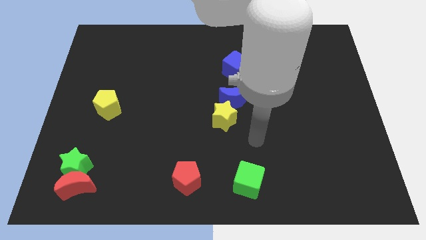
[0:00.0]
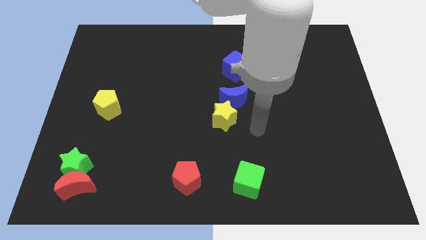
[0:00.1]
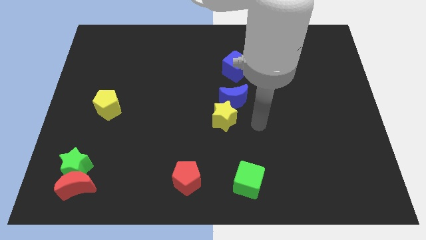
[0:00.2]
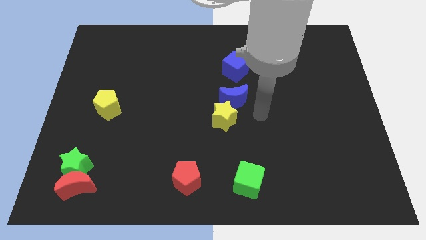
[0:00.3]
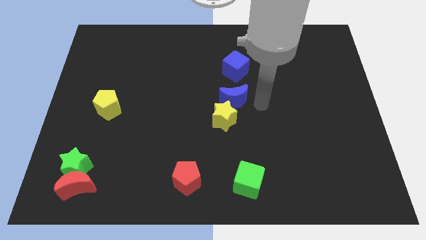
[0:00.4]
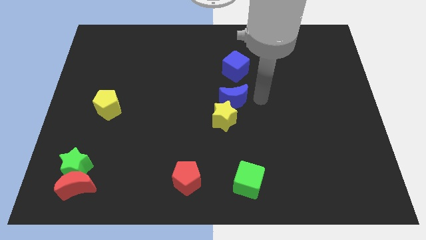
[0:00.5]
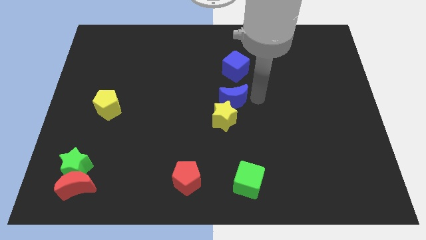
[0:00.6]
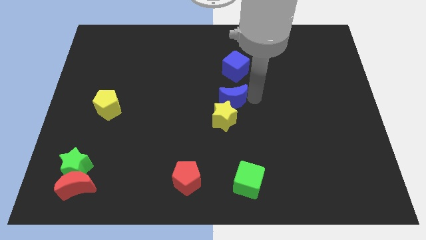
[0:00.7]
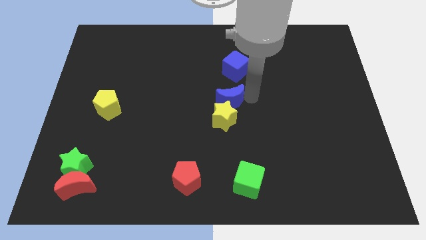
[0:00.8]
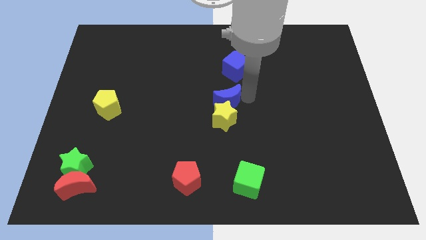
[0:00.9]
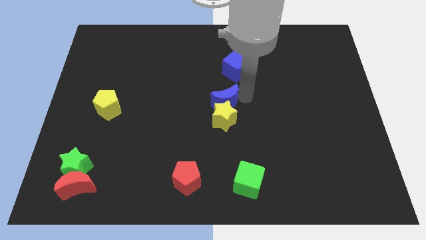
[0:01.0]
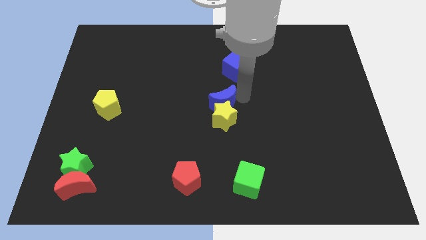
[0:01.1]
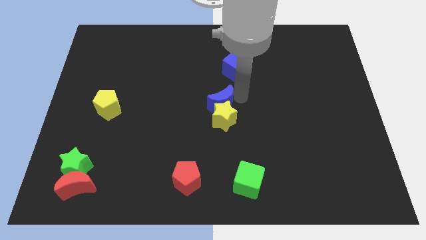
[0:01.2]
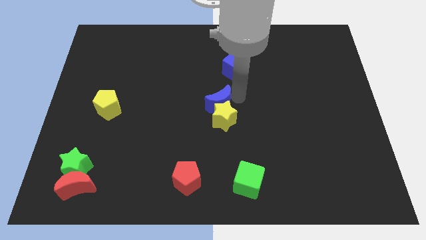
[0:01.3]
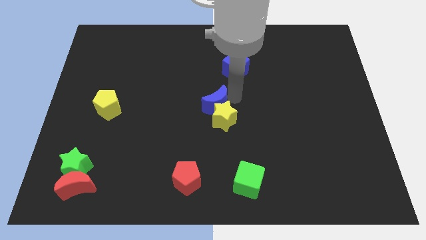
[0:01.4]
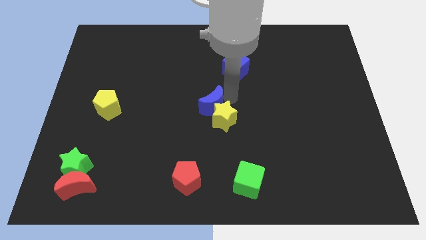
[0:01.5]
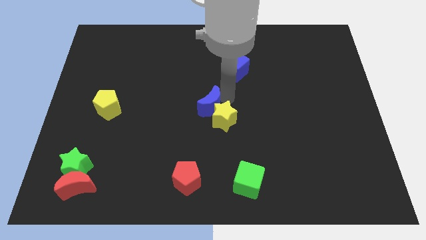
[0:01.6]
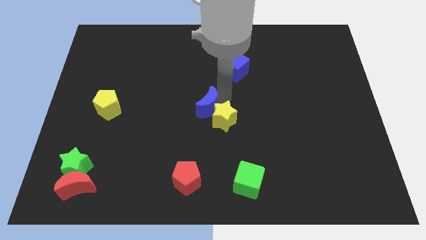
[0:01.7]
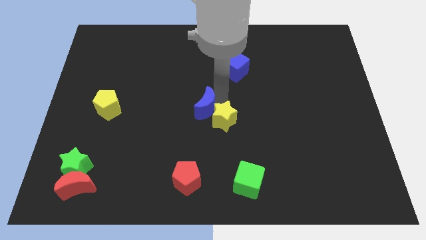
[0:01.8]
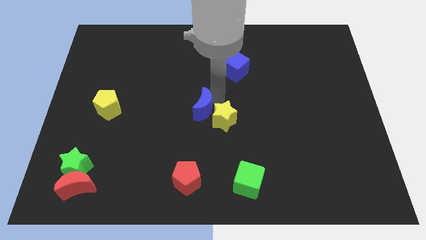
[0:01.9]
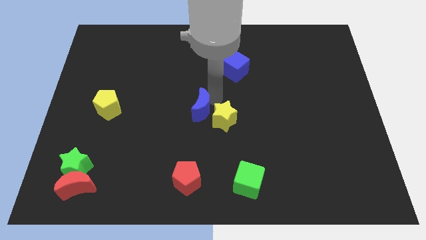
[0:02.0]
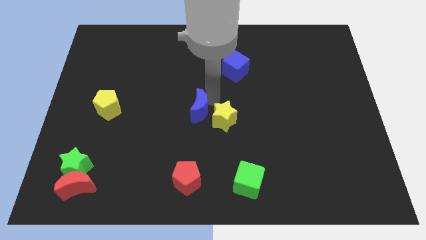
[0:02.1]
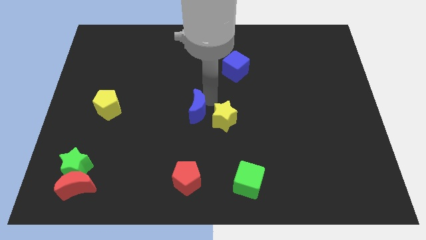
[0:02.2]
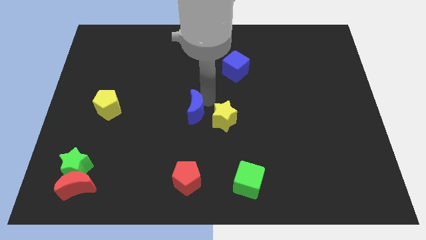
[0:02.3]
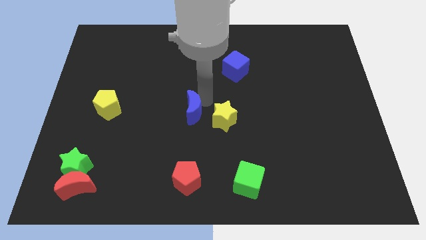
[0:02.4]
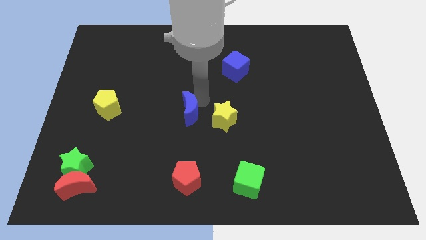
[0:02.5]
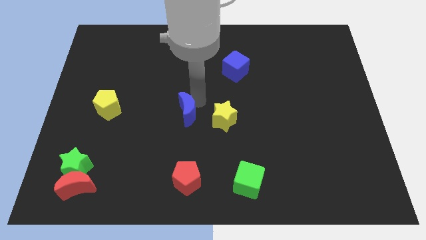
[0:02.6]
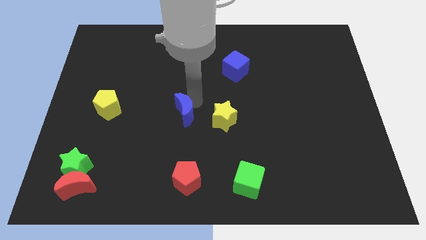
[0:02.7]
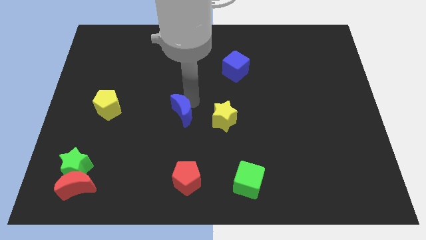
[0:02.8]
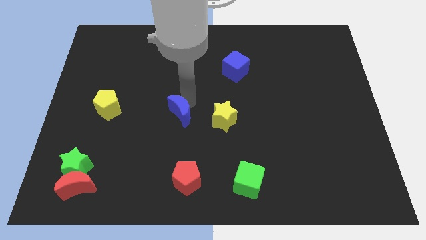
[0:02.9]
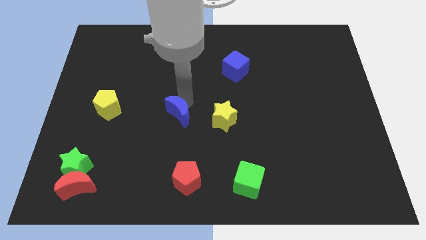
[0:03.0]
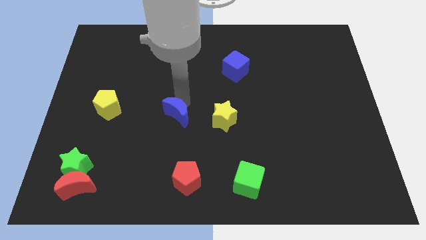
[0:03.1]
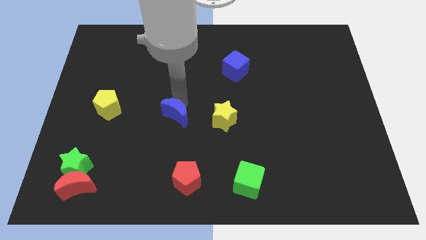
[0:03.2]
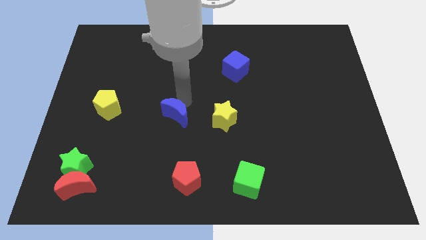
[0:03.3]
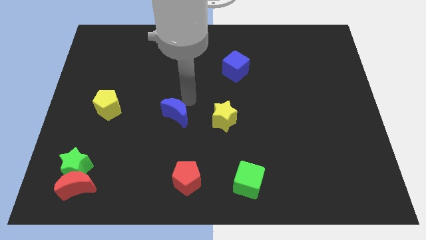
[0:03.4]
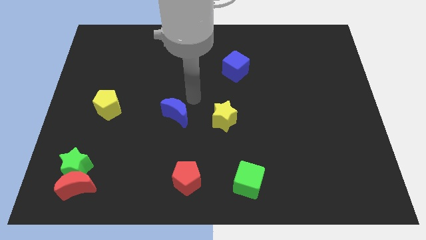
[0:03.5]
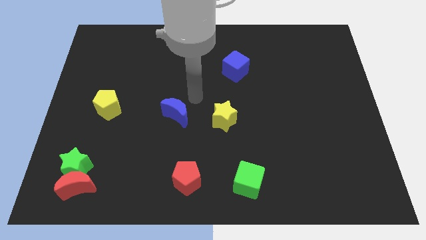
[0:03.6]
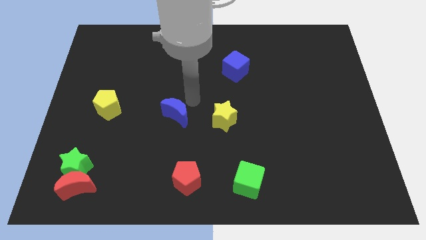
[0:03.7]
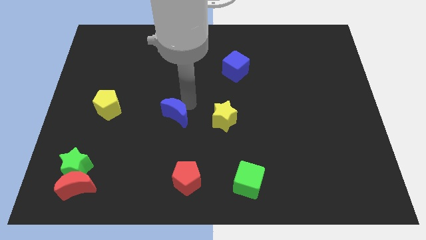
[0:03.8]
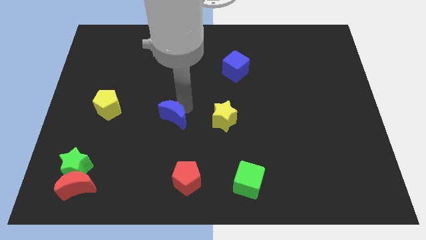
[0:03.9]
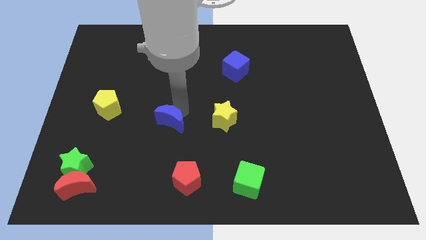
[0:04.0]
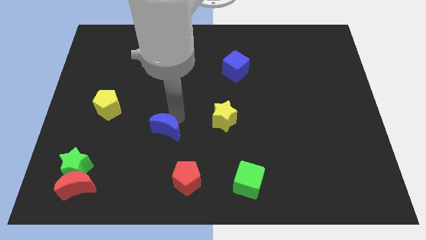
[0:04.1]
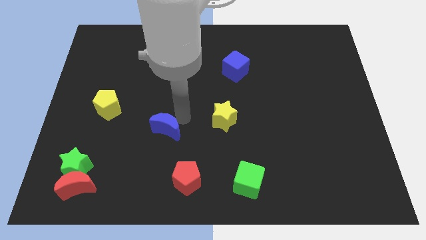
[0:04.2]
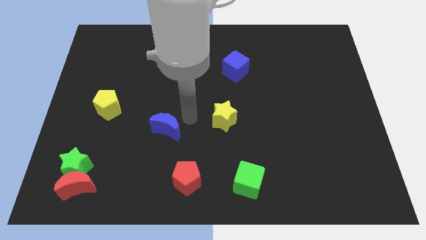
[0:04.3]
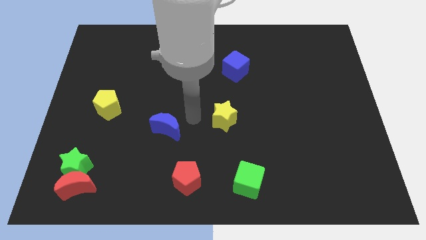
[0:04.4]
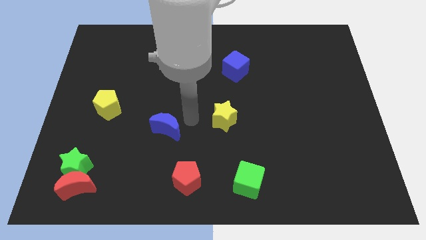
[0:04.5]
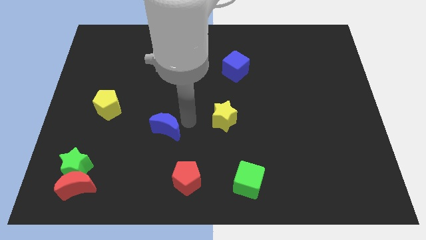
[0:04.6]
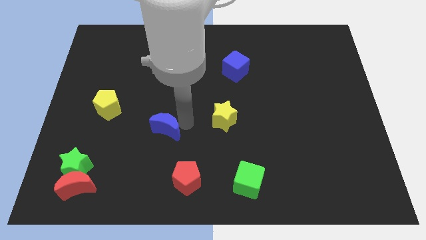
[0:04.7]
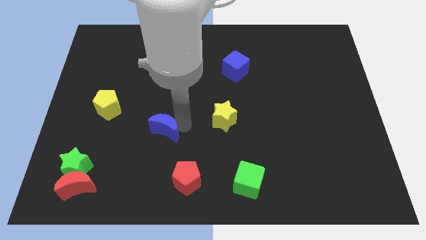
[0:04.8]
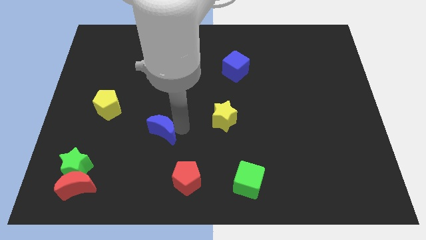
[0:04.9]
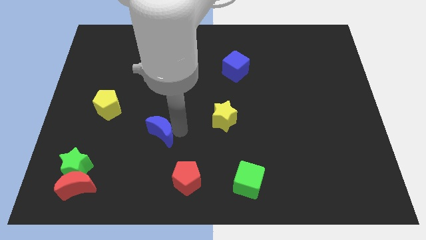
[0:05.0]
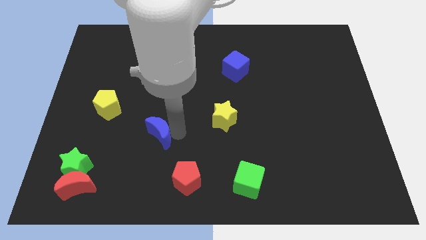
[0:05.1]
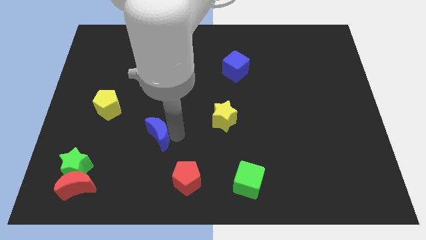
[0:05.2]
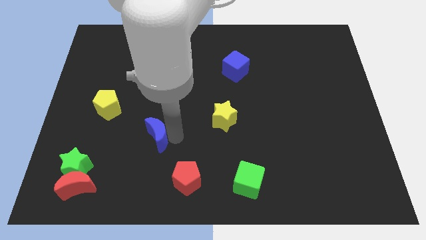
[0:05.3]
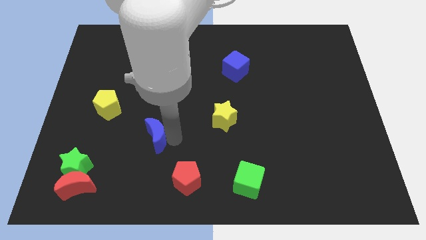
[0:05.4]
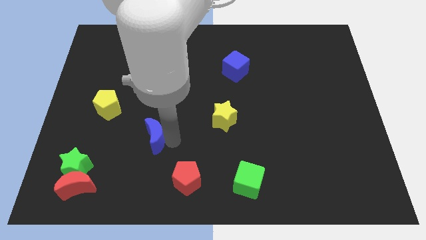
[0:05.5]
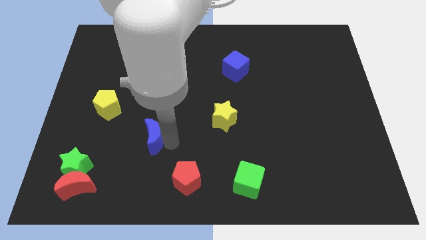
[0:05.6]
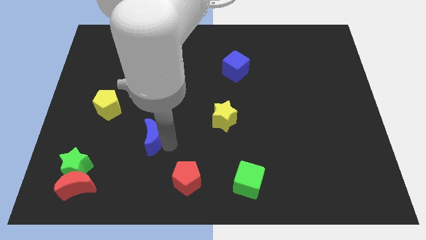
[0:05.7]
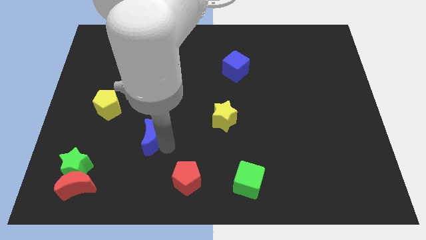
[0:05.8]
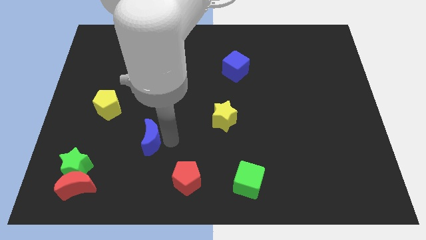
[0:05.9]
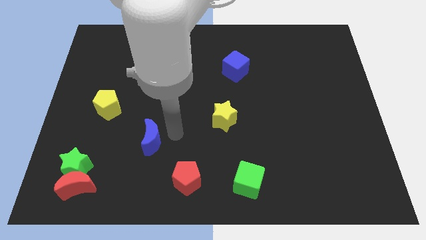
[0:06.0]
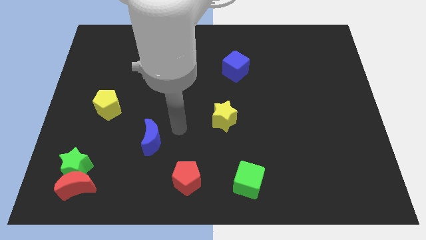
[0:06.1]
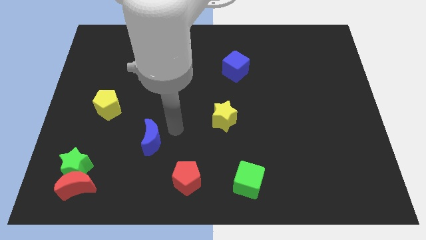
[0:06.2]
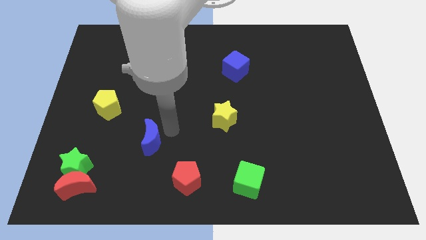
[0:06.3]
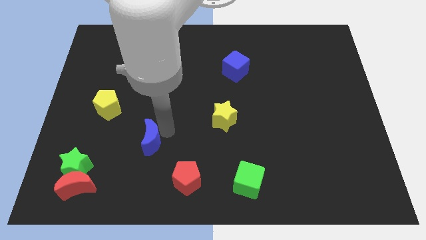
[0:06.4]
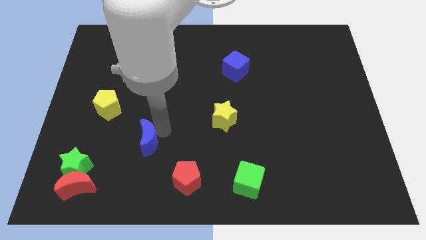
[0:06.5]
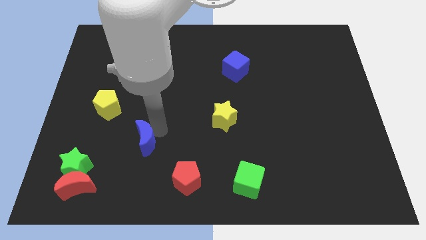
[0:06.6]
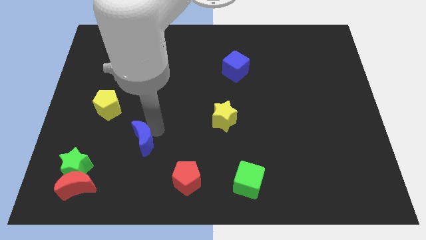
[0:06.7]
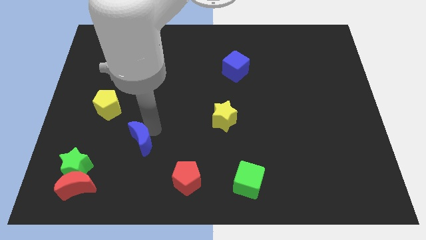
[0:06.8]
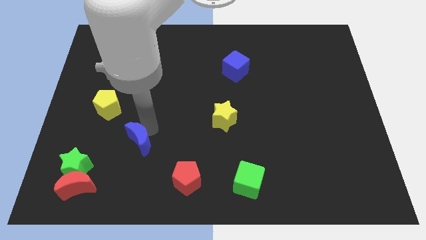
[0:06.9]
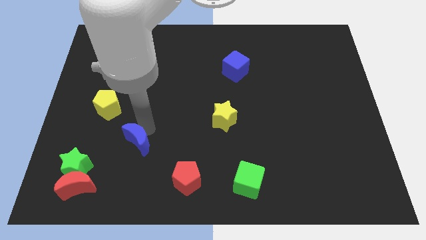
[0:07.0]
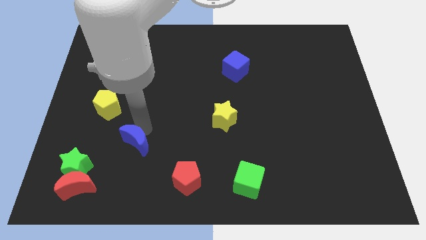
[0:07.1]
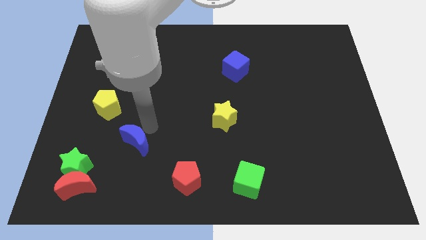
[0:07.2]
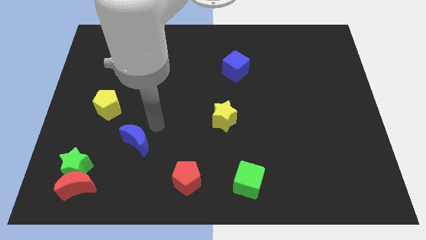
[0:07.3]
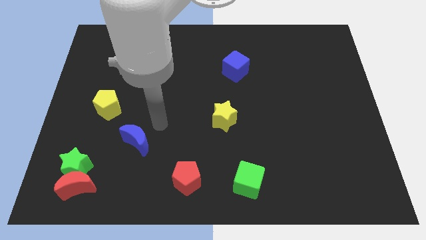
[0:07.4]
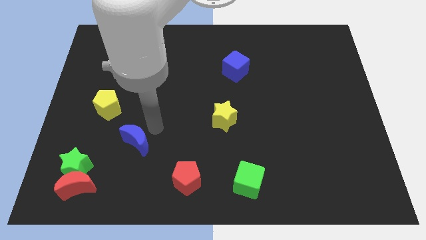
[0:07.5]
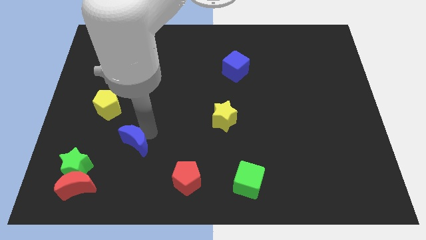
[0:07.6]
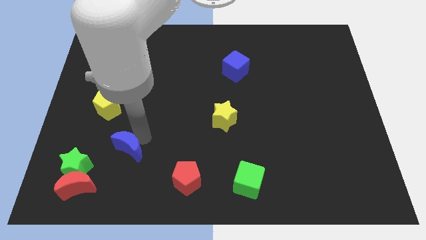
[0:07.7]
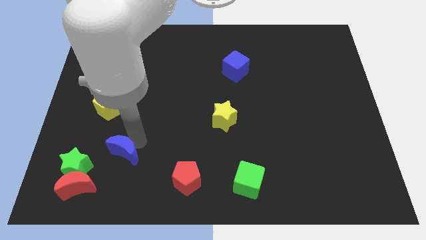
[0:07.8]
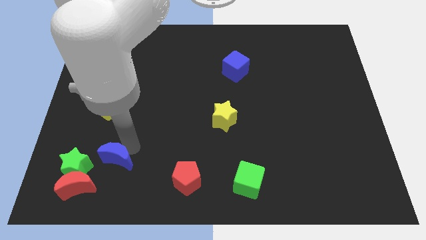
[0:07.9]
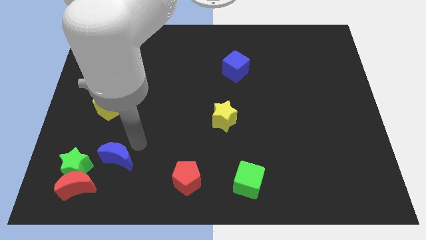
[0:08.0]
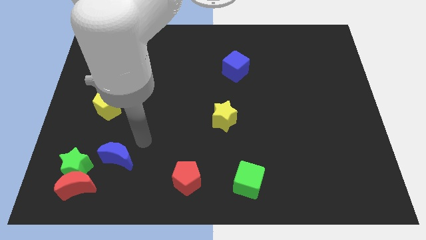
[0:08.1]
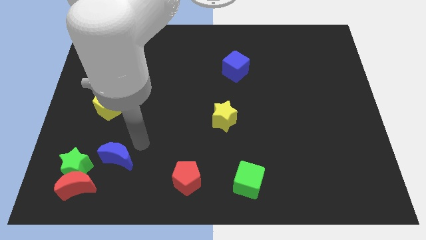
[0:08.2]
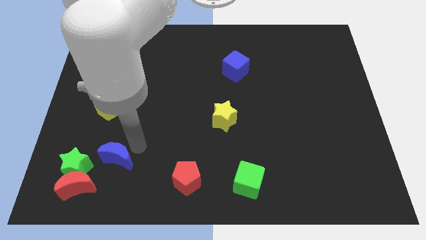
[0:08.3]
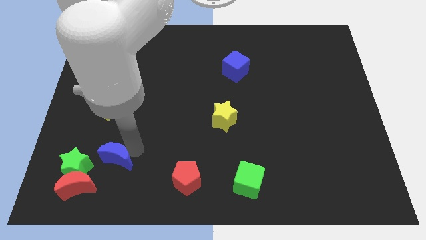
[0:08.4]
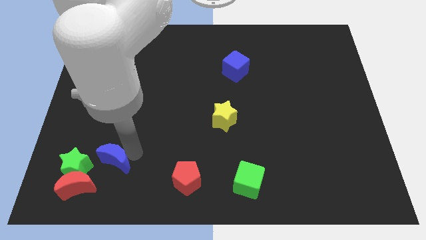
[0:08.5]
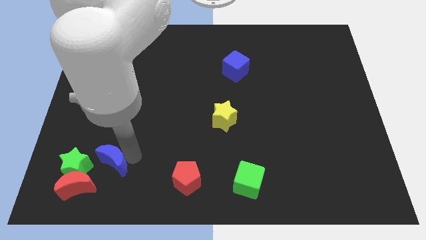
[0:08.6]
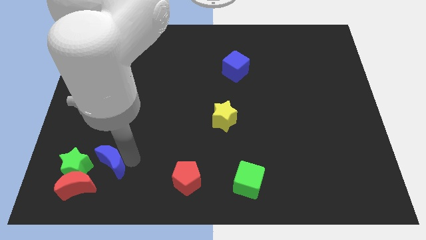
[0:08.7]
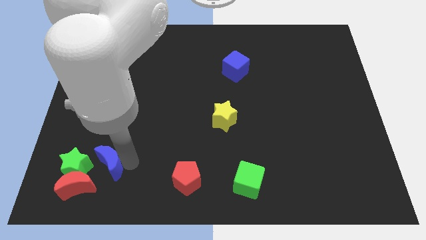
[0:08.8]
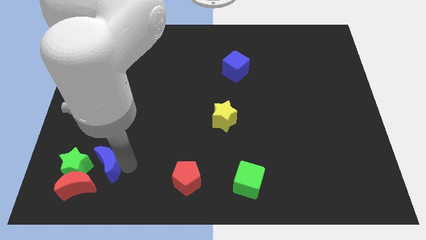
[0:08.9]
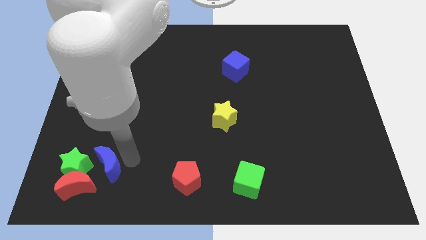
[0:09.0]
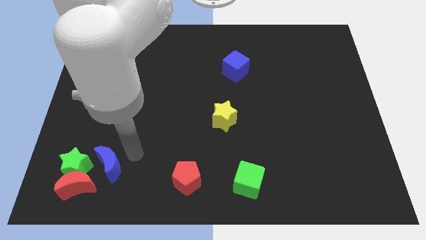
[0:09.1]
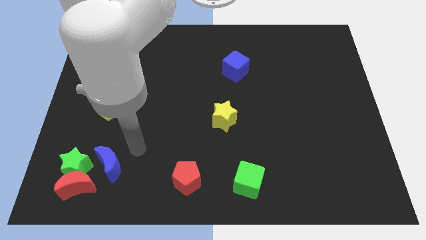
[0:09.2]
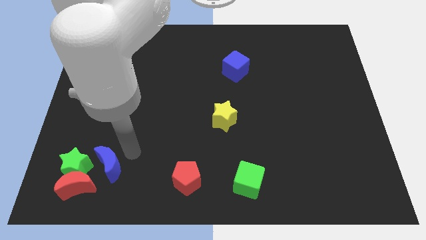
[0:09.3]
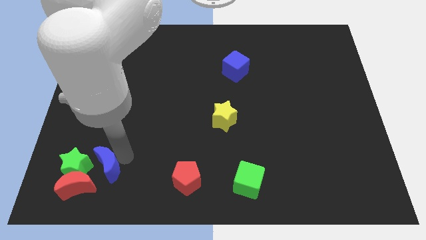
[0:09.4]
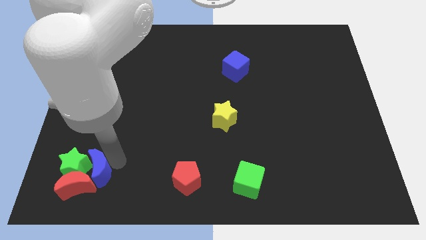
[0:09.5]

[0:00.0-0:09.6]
put the blue moon to the red moon
